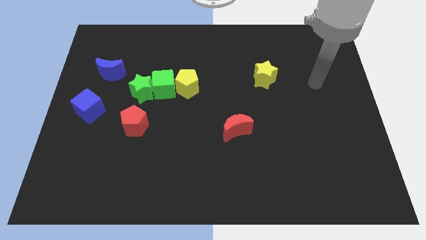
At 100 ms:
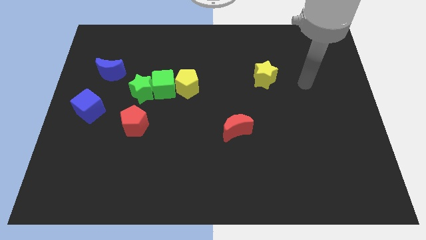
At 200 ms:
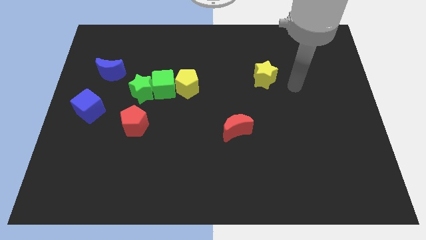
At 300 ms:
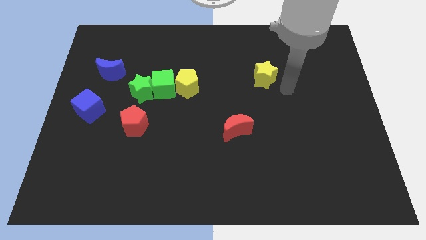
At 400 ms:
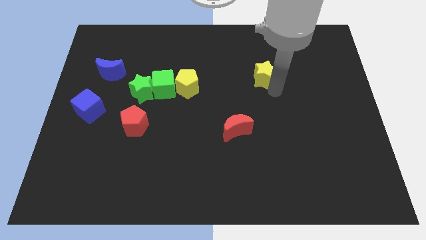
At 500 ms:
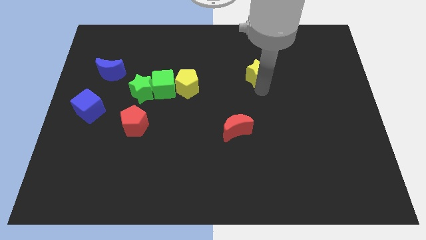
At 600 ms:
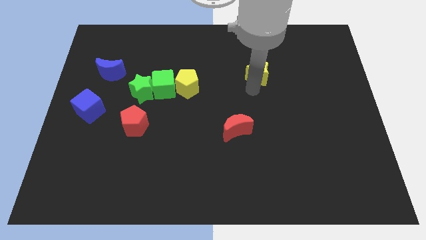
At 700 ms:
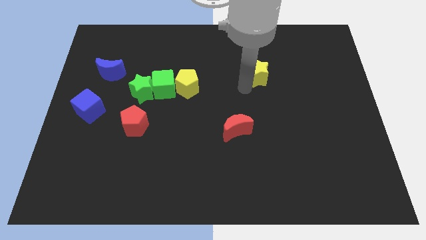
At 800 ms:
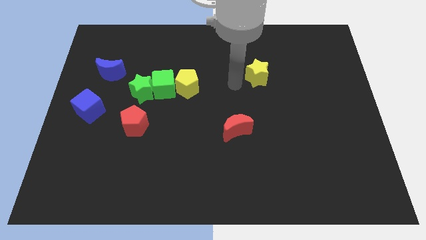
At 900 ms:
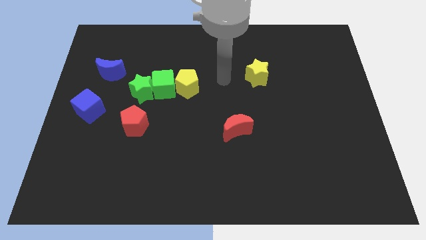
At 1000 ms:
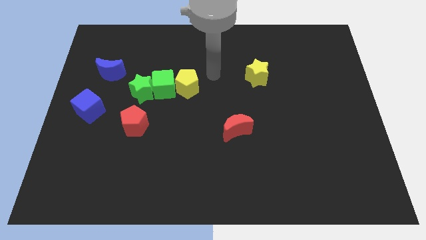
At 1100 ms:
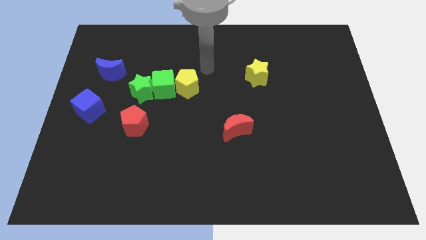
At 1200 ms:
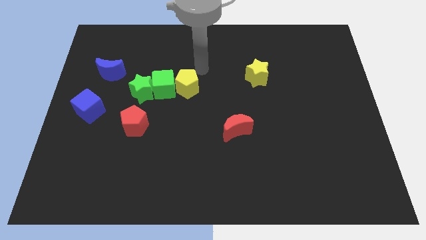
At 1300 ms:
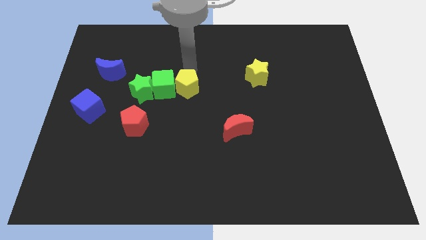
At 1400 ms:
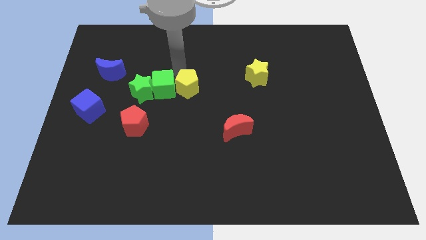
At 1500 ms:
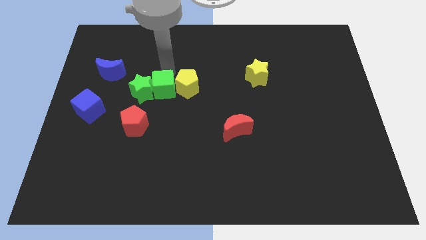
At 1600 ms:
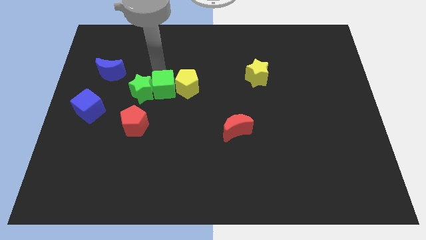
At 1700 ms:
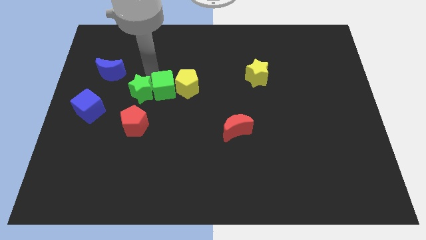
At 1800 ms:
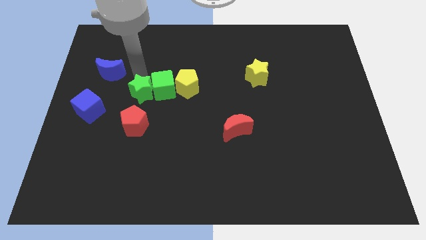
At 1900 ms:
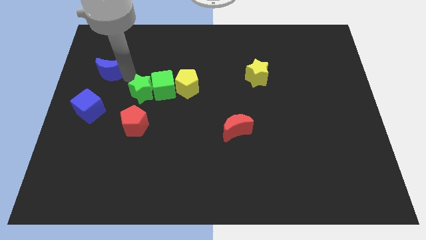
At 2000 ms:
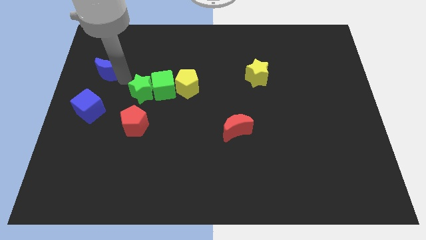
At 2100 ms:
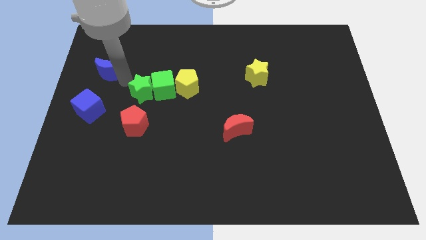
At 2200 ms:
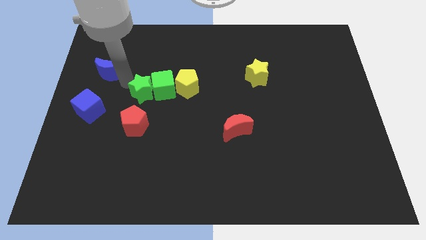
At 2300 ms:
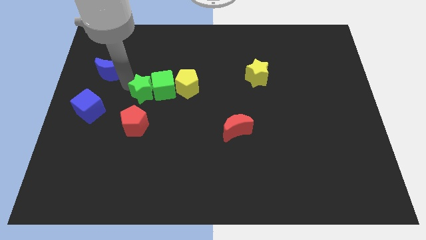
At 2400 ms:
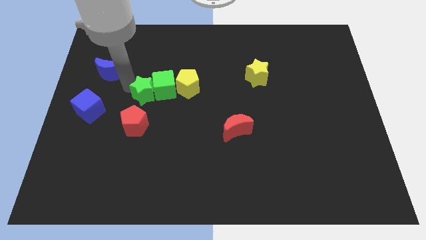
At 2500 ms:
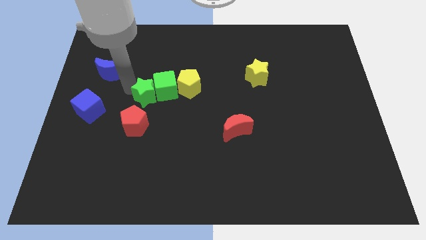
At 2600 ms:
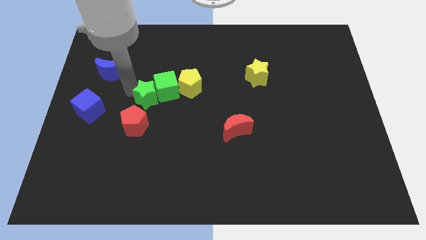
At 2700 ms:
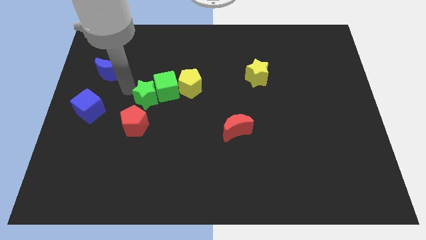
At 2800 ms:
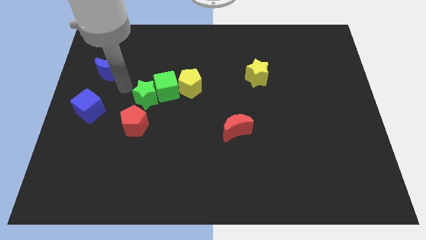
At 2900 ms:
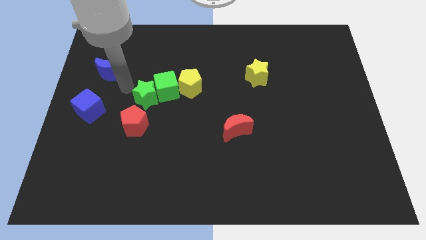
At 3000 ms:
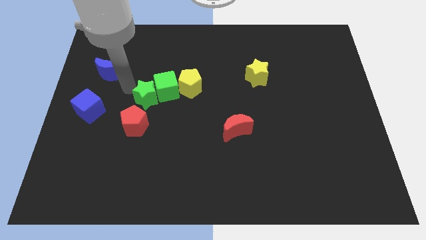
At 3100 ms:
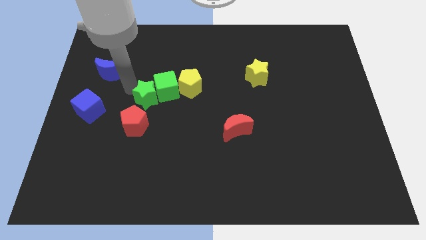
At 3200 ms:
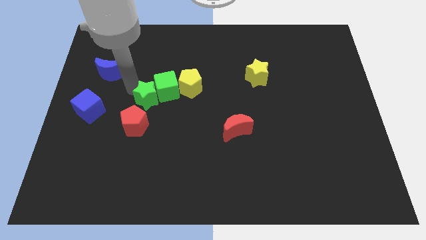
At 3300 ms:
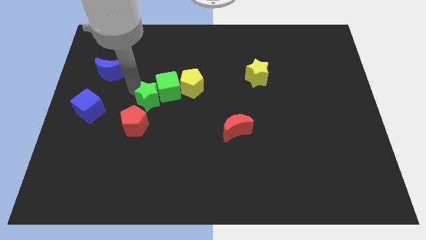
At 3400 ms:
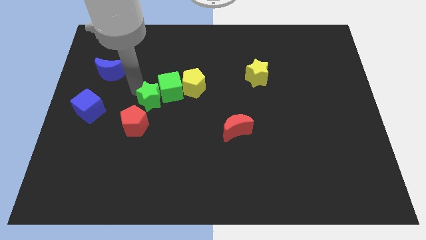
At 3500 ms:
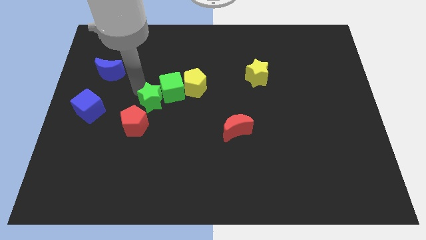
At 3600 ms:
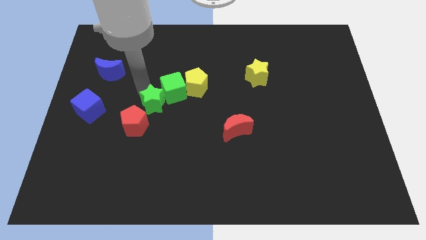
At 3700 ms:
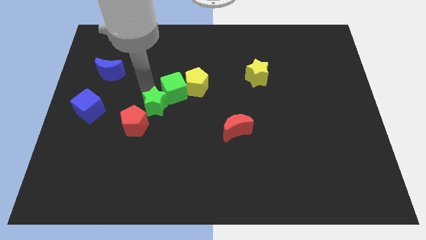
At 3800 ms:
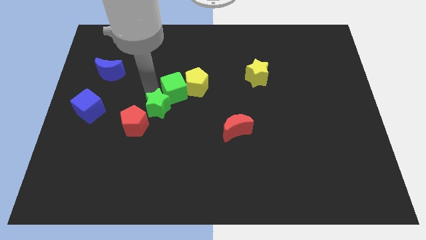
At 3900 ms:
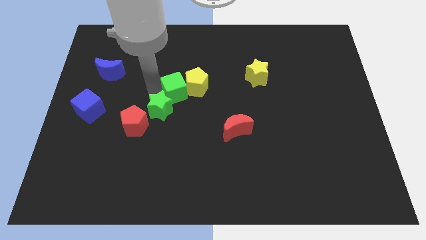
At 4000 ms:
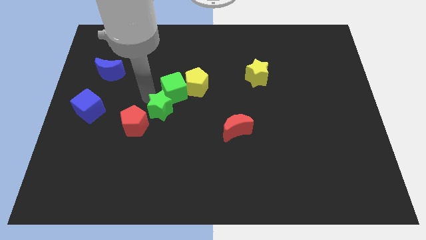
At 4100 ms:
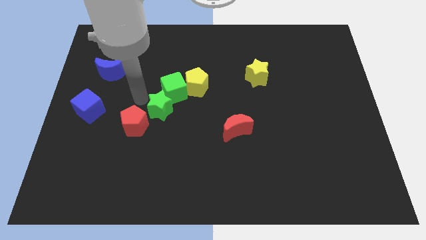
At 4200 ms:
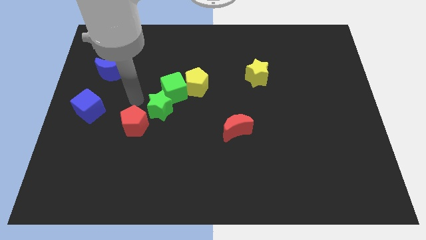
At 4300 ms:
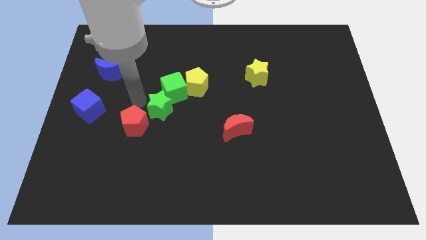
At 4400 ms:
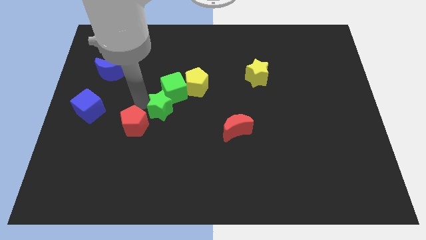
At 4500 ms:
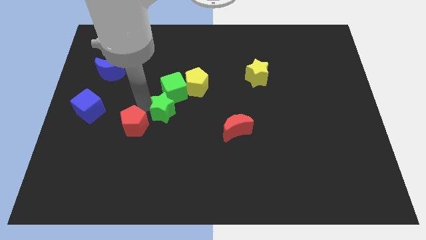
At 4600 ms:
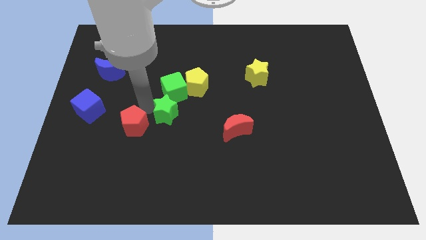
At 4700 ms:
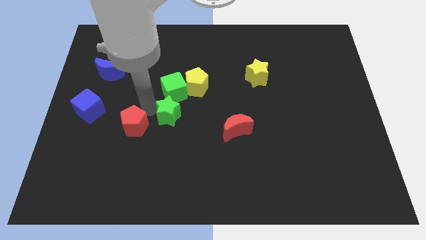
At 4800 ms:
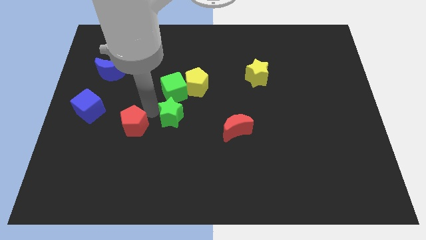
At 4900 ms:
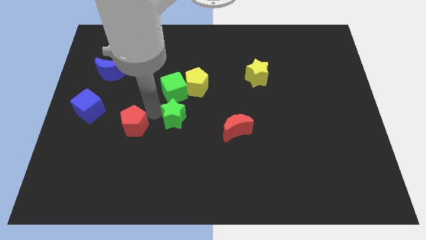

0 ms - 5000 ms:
slide the green star to the bottom of the yellow pentagon

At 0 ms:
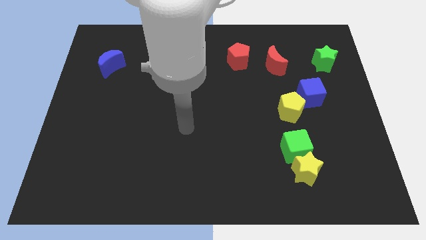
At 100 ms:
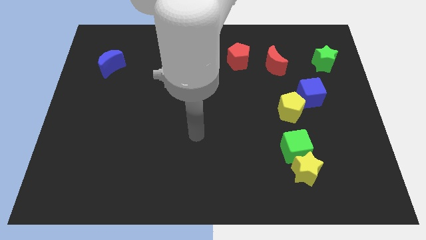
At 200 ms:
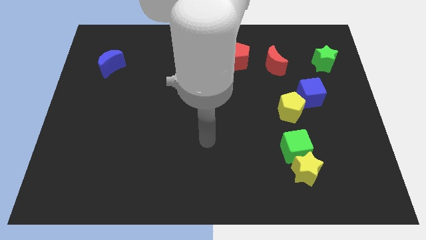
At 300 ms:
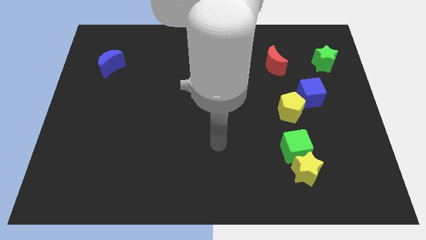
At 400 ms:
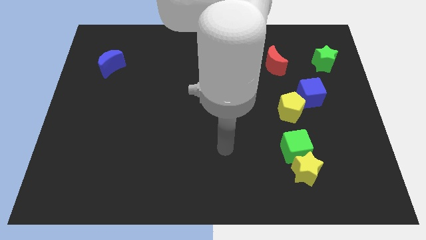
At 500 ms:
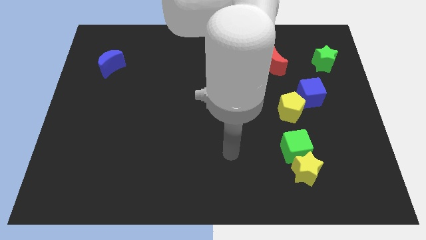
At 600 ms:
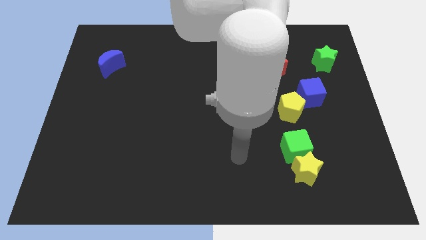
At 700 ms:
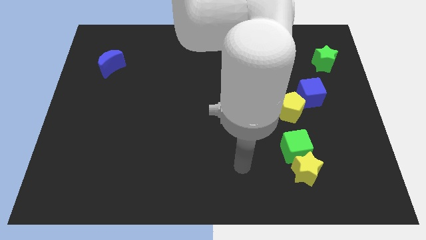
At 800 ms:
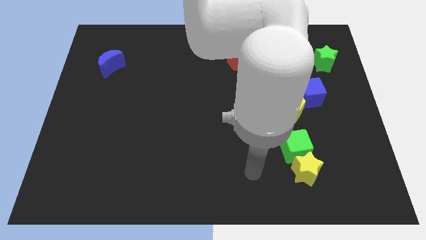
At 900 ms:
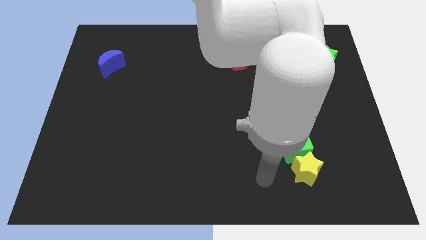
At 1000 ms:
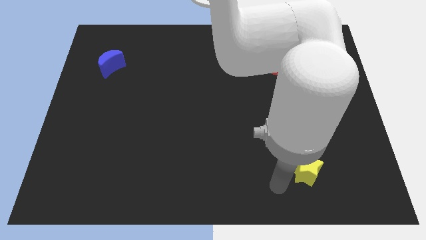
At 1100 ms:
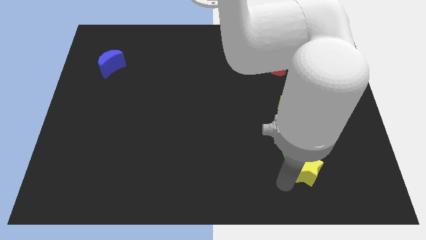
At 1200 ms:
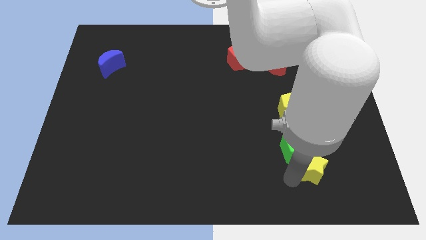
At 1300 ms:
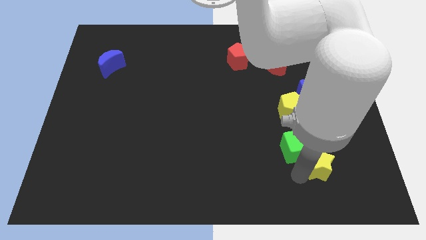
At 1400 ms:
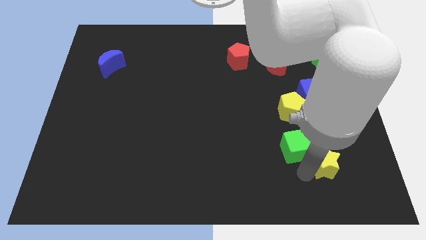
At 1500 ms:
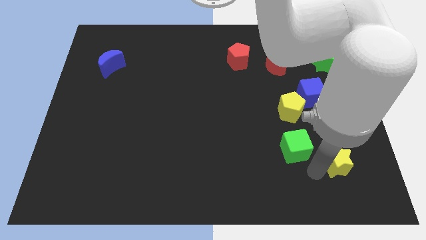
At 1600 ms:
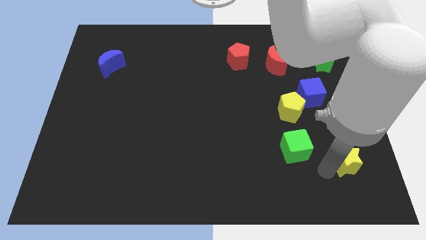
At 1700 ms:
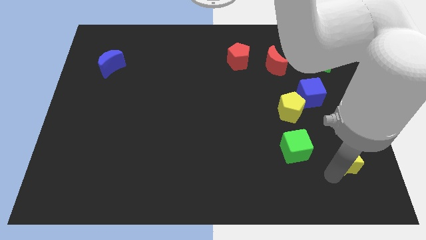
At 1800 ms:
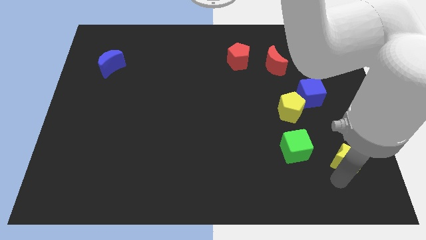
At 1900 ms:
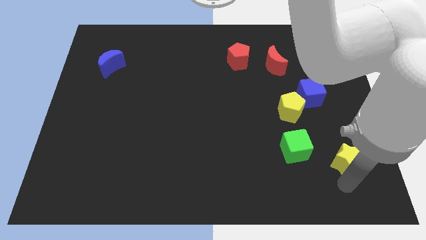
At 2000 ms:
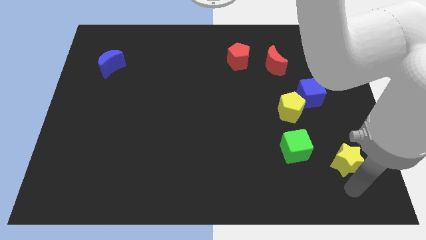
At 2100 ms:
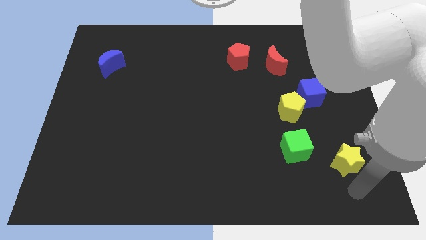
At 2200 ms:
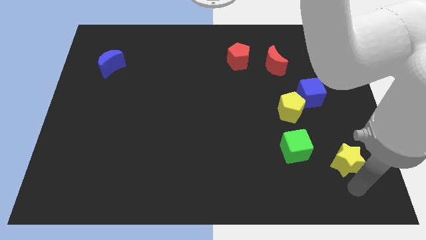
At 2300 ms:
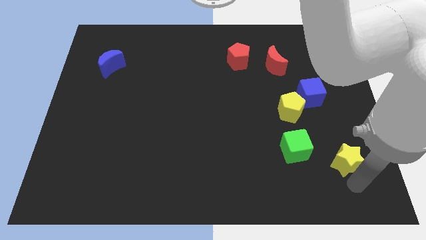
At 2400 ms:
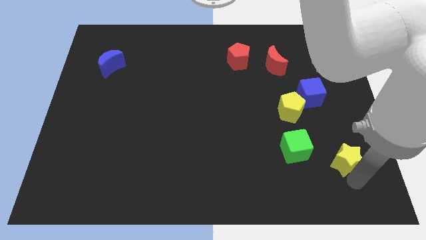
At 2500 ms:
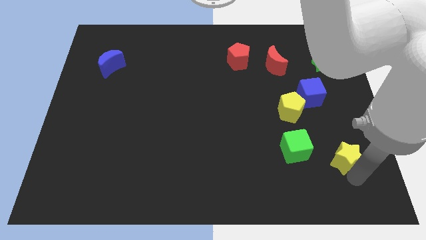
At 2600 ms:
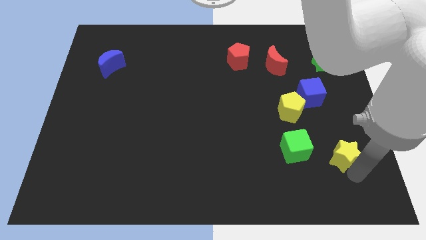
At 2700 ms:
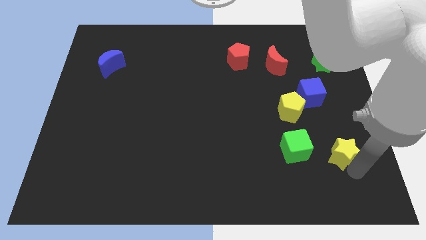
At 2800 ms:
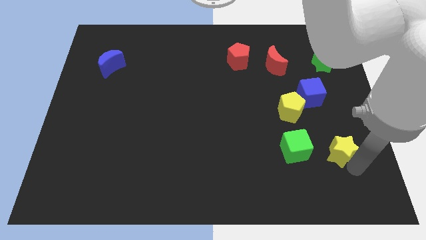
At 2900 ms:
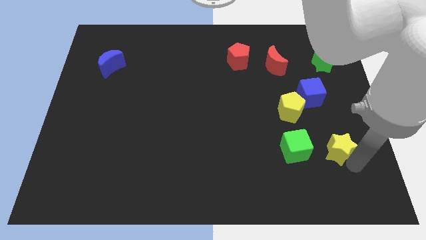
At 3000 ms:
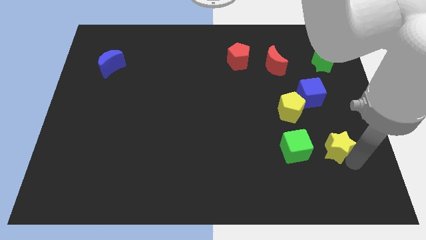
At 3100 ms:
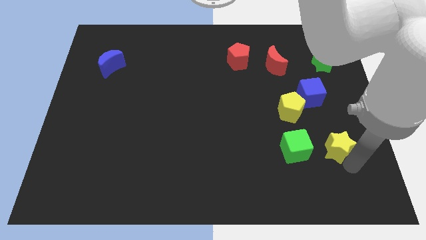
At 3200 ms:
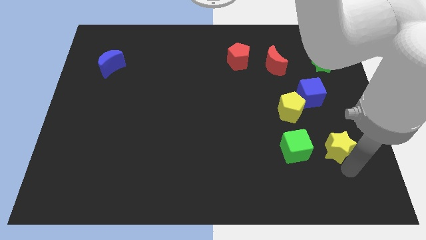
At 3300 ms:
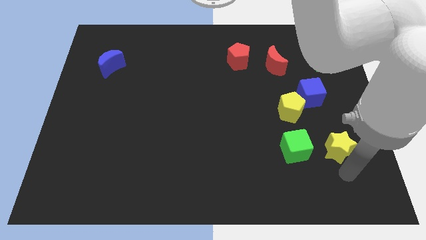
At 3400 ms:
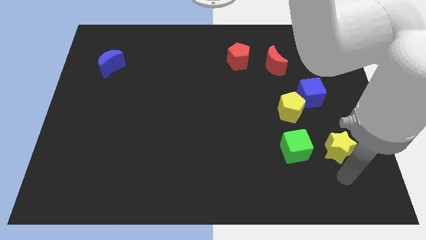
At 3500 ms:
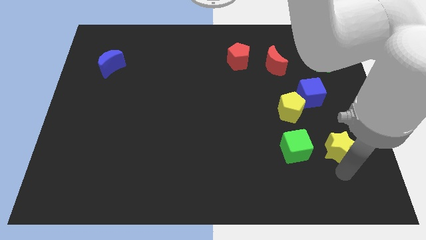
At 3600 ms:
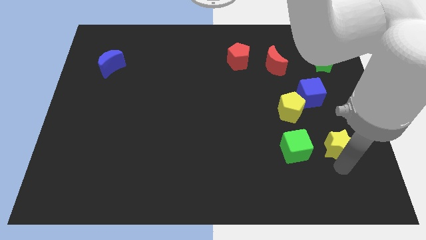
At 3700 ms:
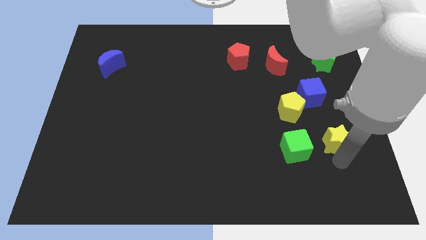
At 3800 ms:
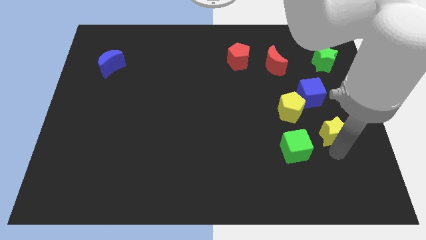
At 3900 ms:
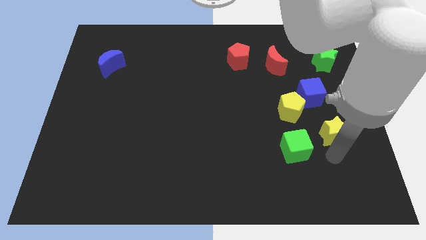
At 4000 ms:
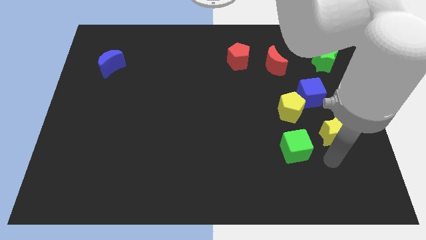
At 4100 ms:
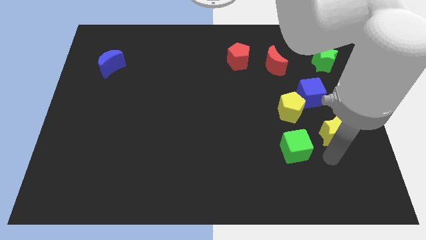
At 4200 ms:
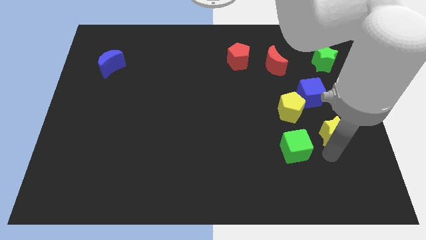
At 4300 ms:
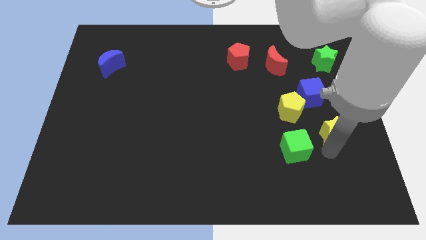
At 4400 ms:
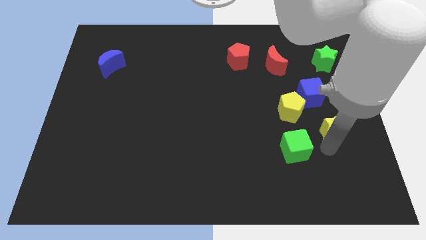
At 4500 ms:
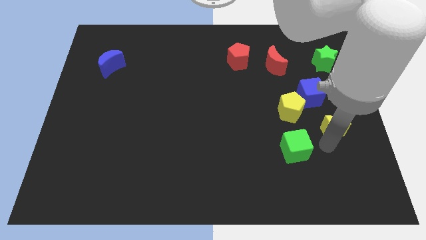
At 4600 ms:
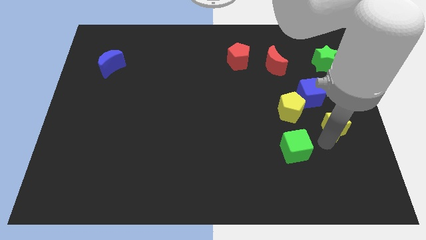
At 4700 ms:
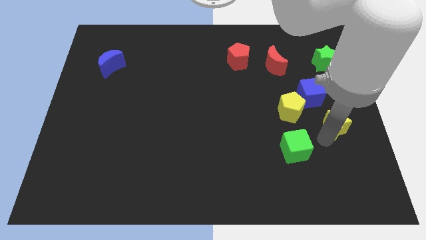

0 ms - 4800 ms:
put the yellow star to the right side of the yellow pentagon
